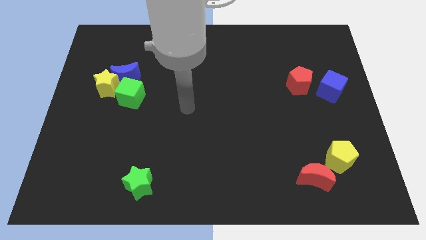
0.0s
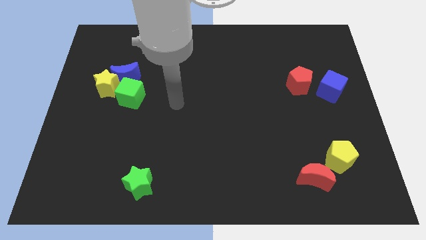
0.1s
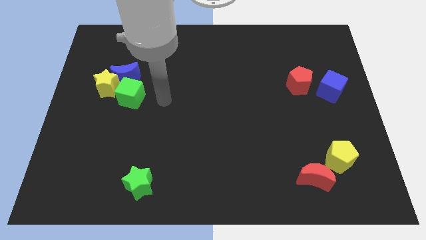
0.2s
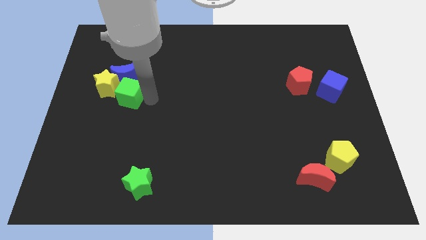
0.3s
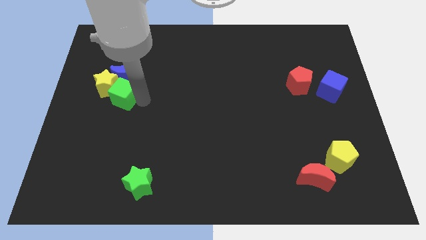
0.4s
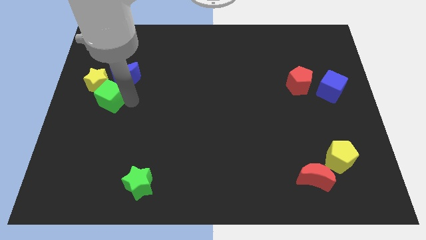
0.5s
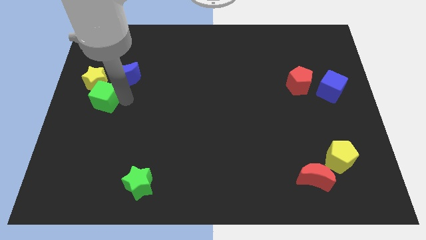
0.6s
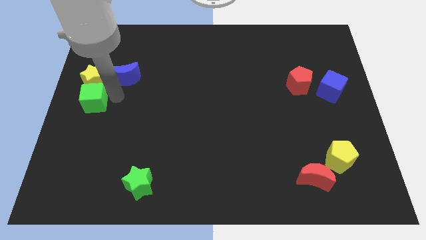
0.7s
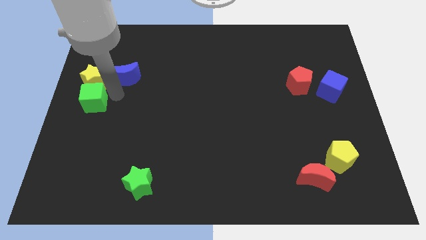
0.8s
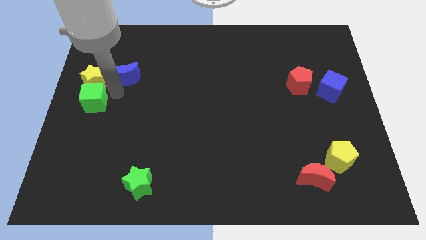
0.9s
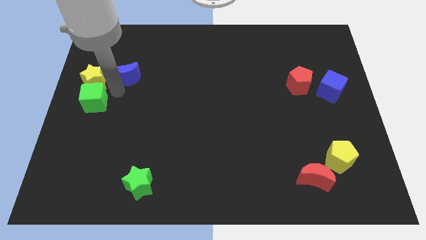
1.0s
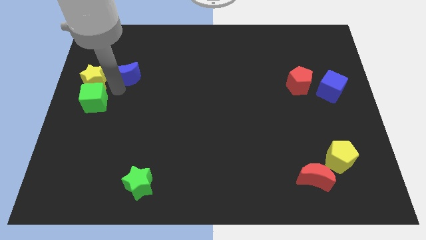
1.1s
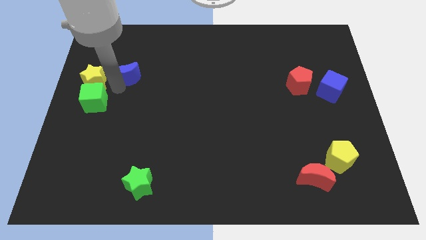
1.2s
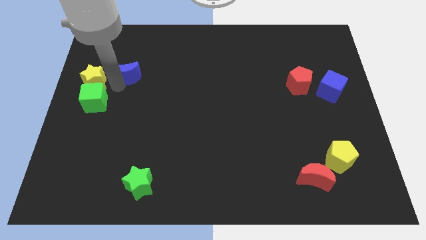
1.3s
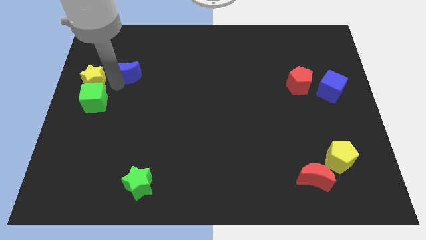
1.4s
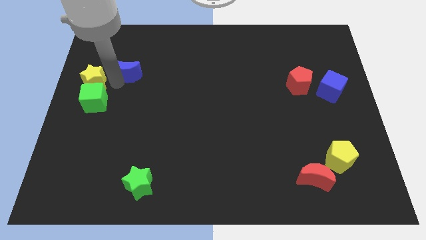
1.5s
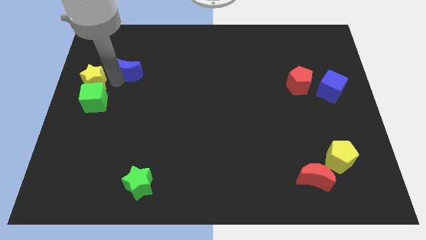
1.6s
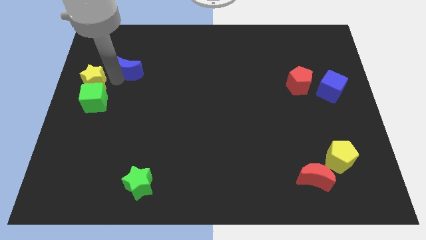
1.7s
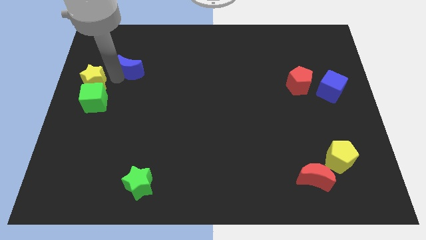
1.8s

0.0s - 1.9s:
separate the blue moon from the yellow star and green cube

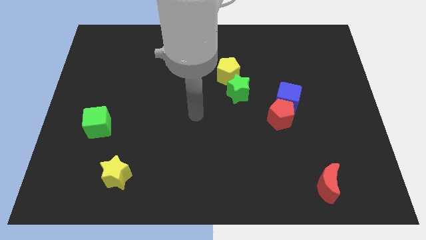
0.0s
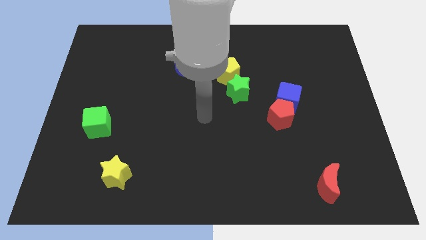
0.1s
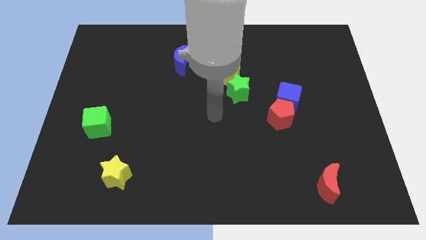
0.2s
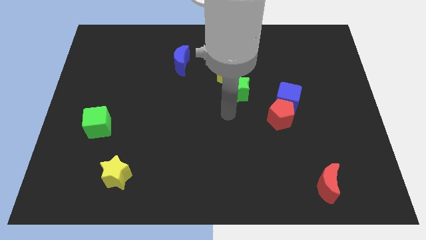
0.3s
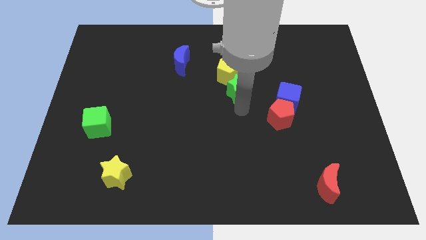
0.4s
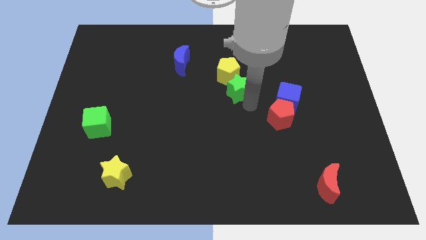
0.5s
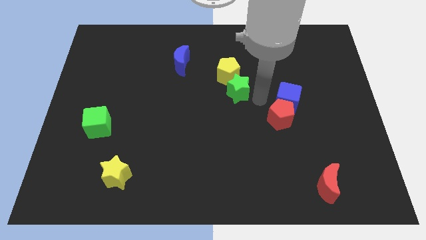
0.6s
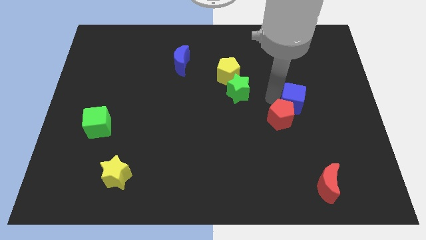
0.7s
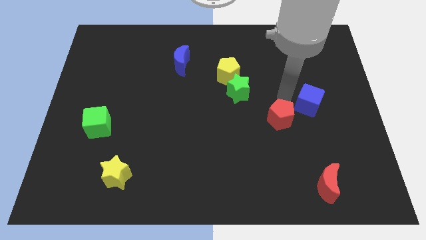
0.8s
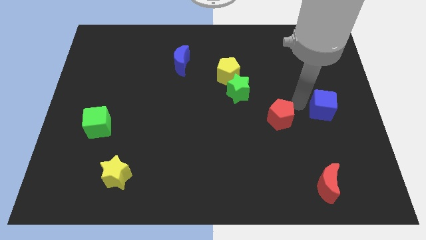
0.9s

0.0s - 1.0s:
move the red pentagon away from the blue cube

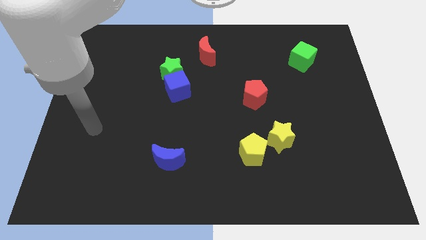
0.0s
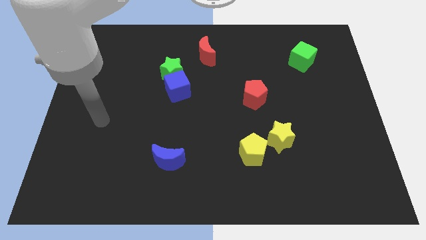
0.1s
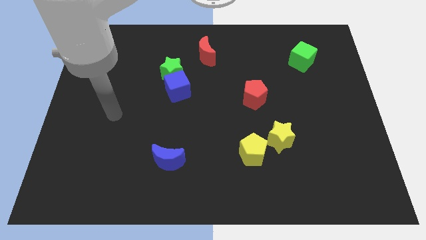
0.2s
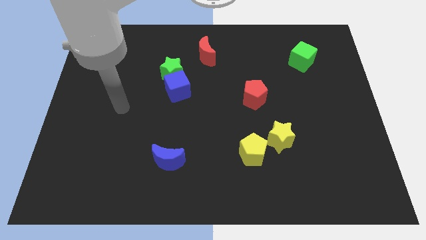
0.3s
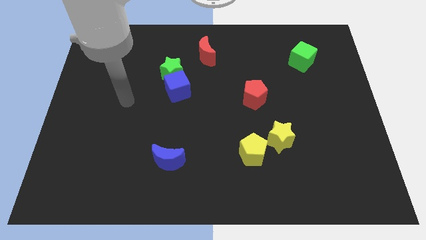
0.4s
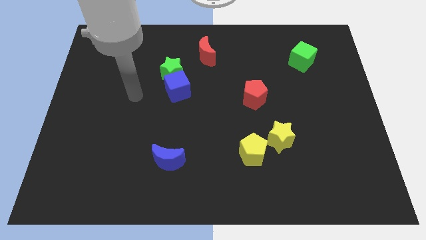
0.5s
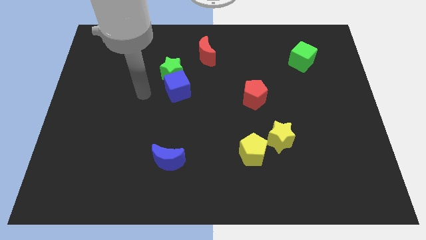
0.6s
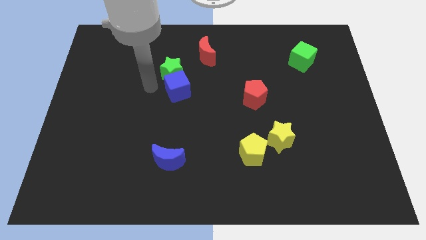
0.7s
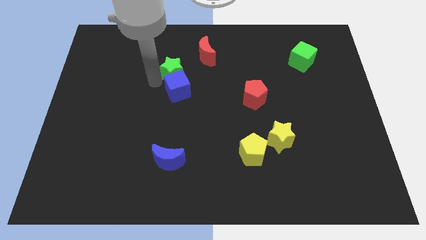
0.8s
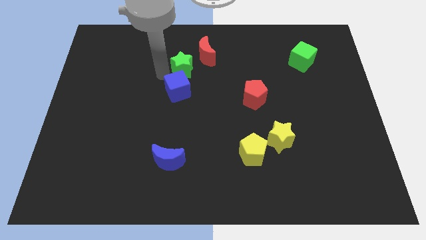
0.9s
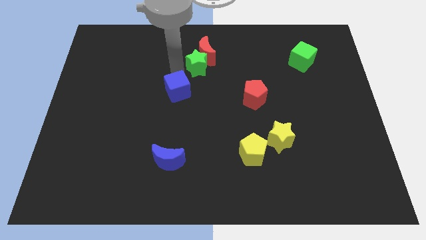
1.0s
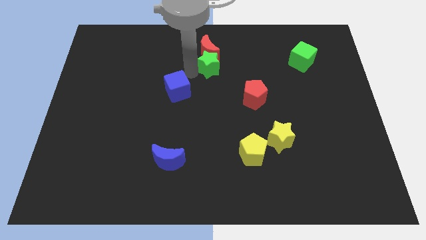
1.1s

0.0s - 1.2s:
pull the blue cube apart from the green star

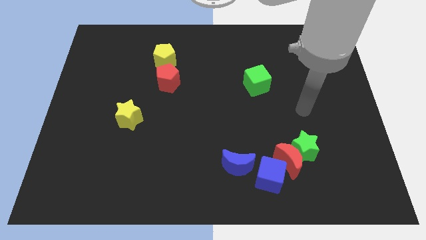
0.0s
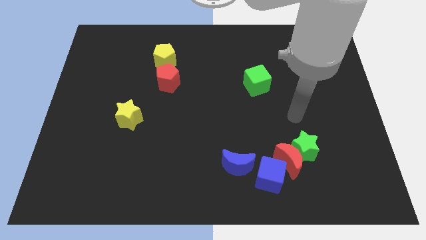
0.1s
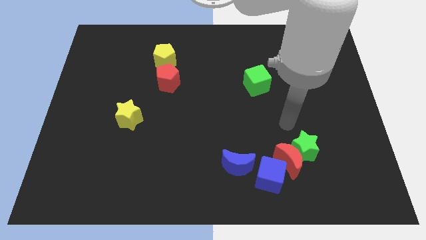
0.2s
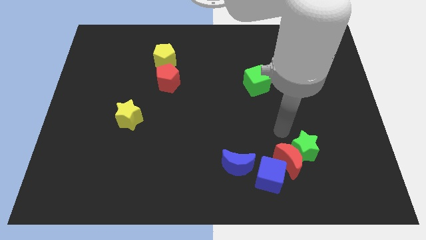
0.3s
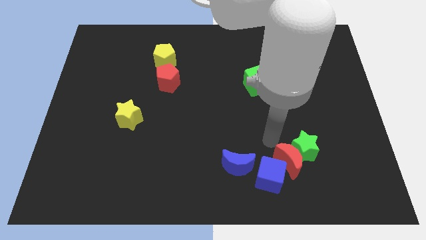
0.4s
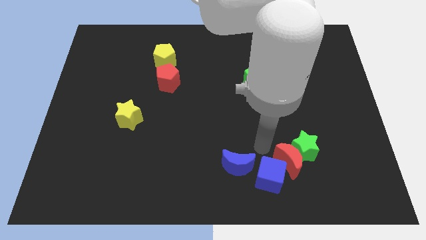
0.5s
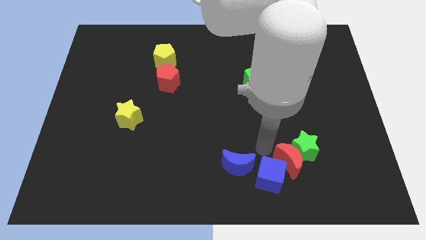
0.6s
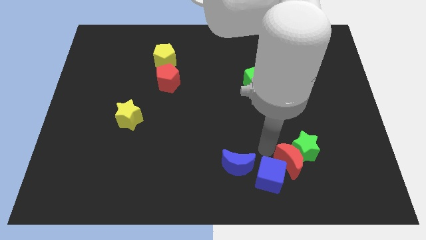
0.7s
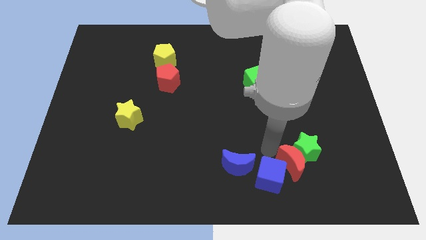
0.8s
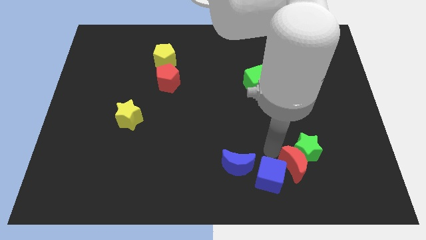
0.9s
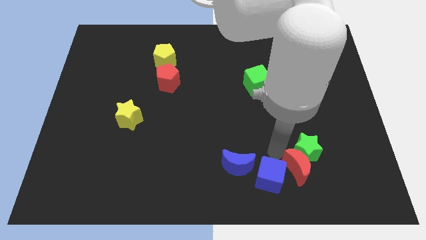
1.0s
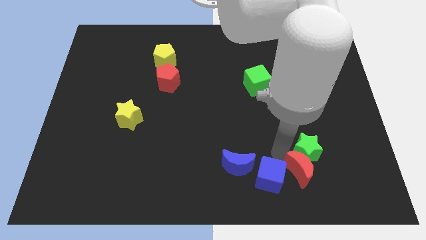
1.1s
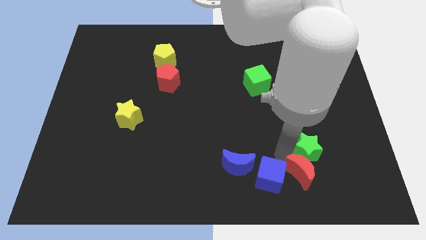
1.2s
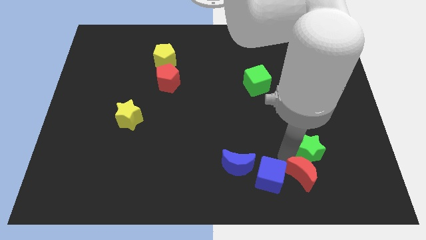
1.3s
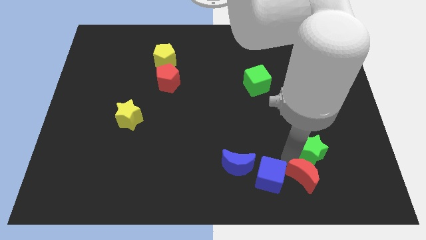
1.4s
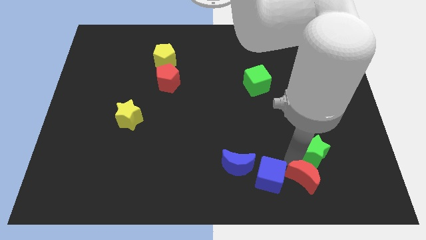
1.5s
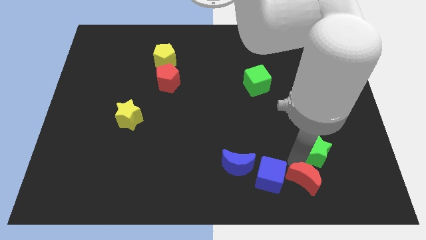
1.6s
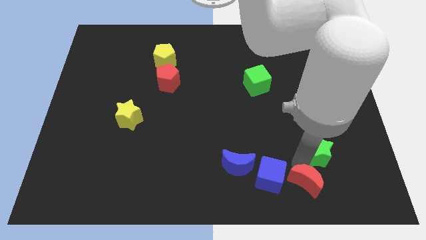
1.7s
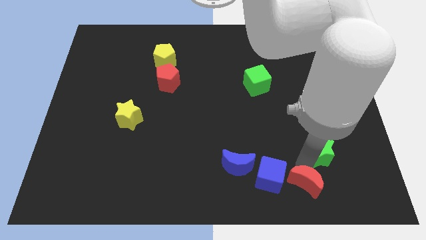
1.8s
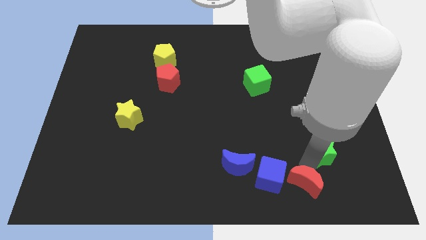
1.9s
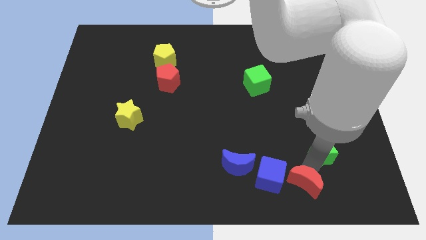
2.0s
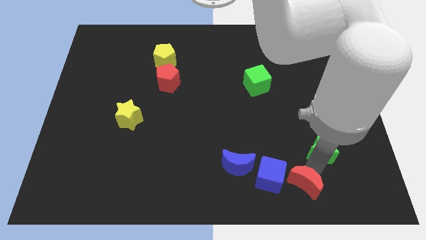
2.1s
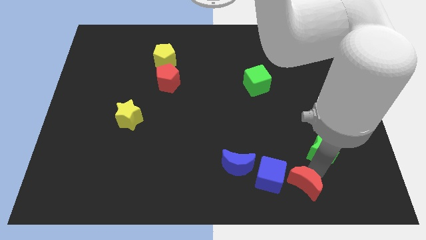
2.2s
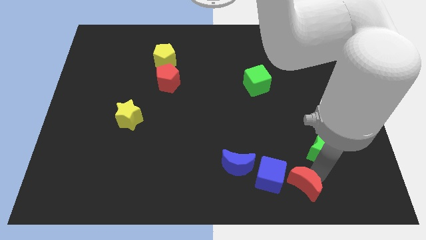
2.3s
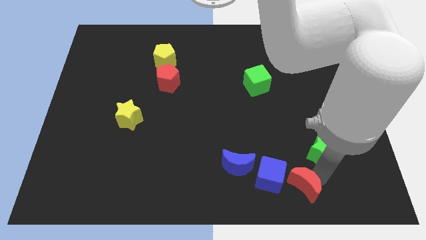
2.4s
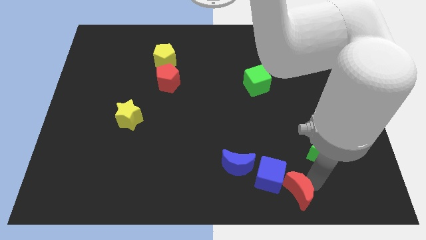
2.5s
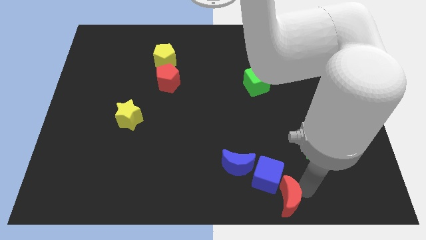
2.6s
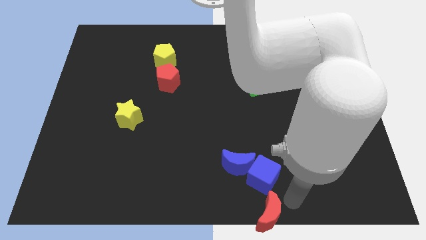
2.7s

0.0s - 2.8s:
pull the red moon apart from the green star and blue cube

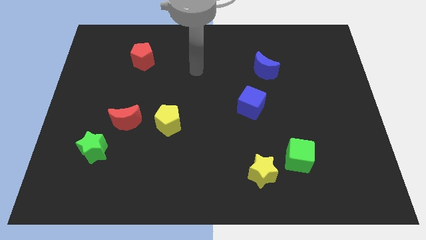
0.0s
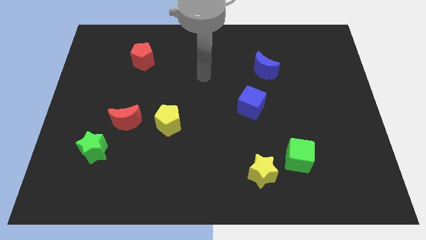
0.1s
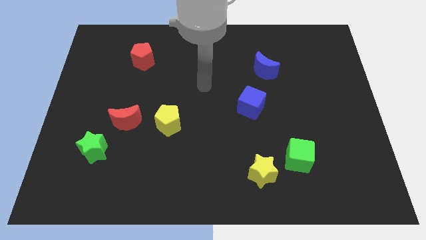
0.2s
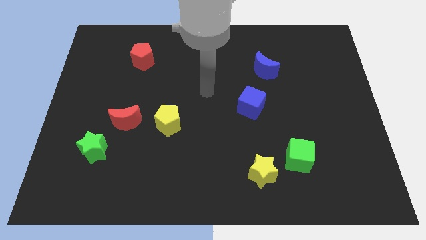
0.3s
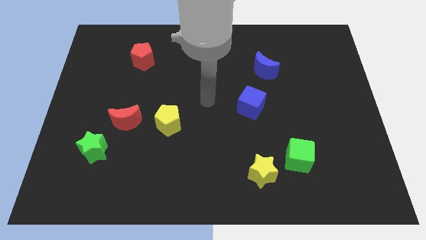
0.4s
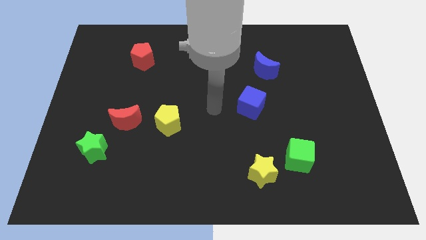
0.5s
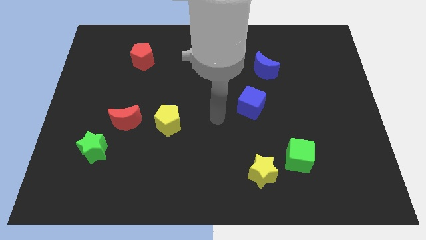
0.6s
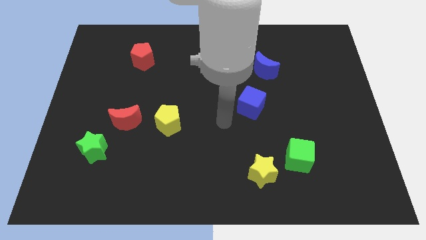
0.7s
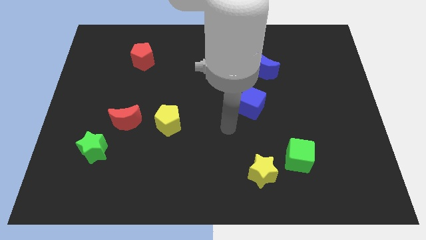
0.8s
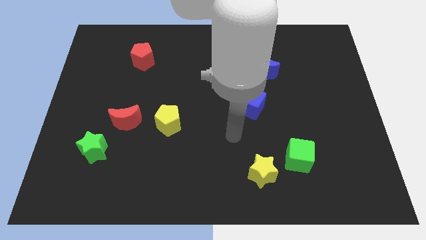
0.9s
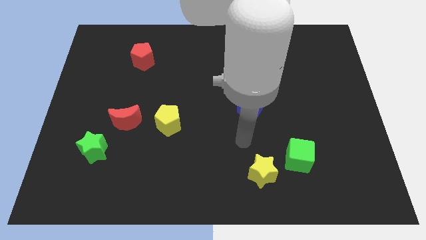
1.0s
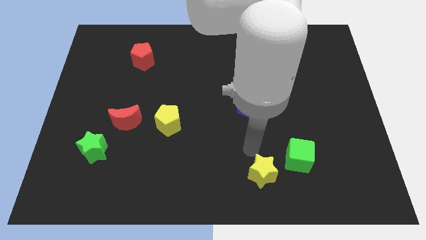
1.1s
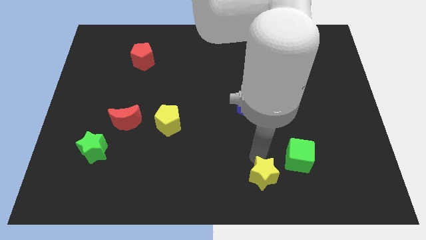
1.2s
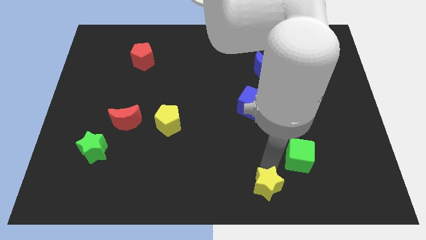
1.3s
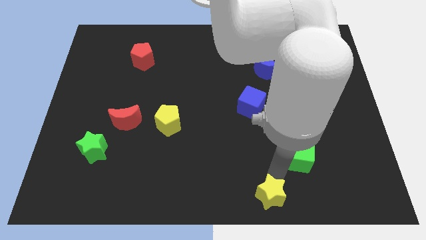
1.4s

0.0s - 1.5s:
move the green cube away from the yellow star

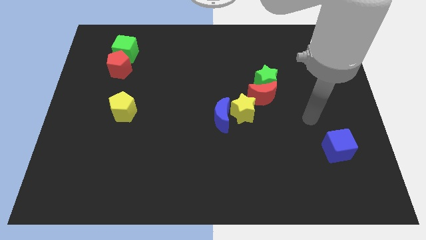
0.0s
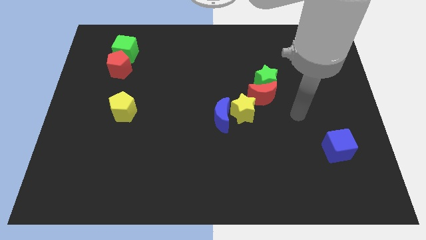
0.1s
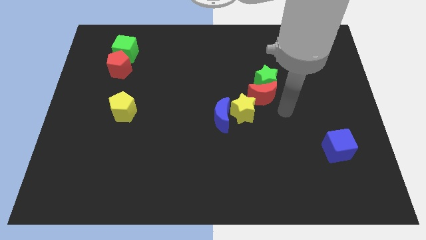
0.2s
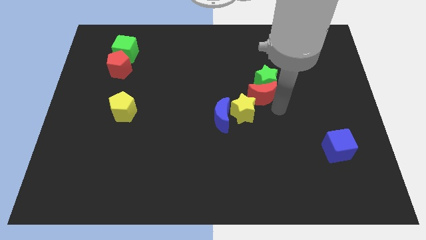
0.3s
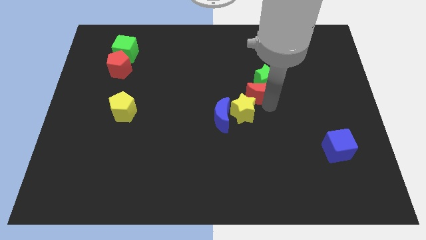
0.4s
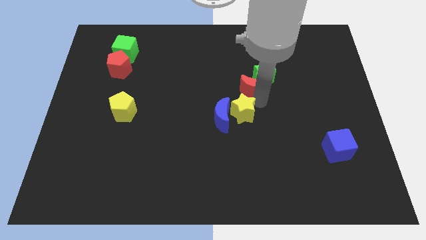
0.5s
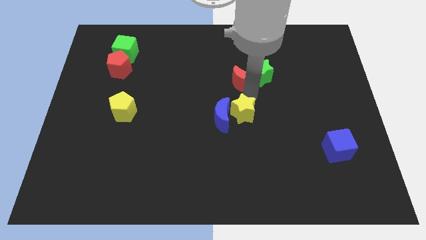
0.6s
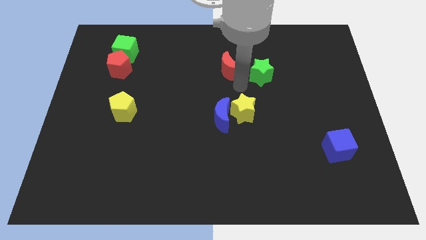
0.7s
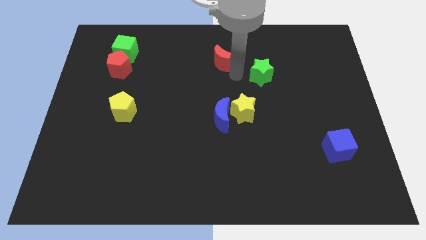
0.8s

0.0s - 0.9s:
separate the green star from the red moon
